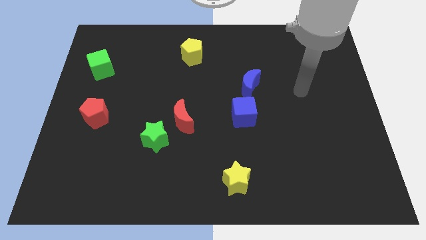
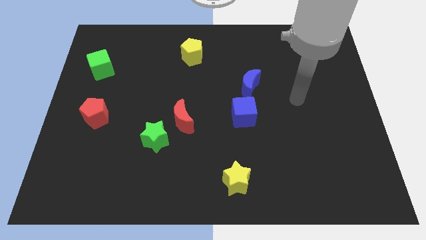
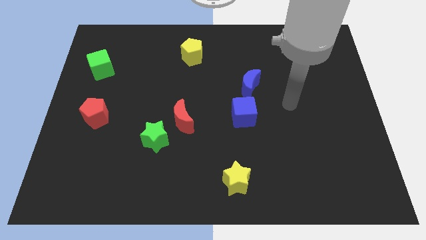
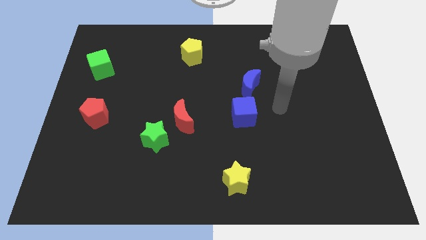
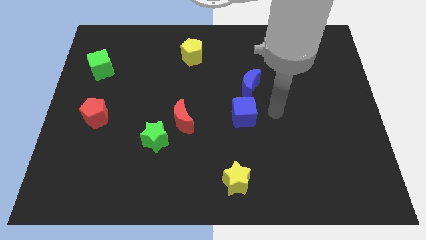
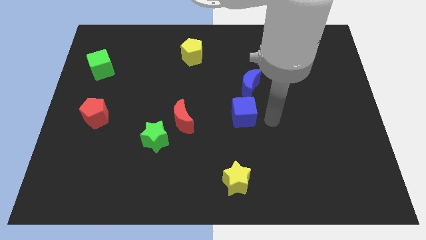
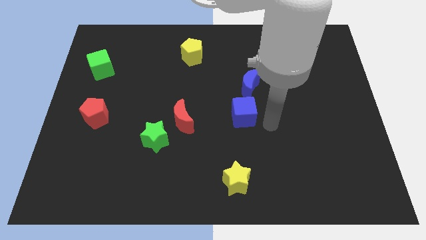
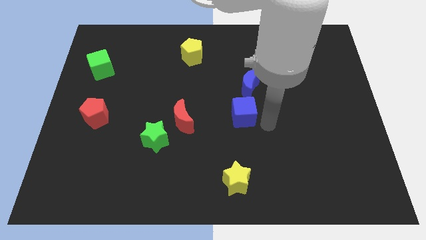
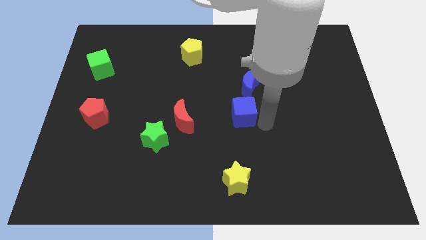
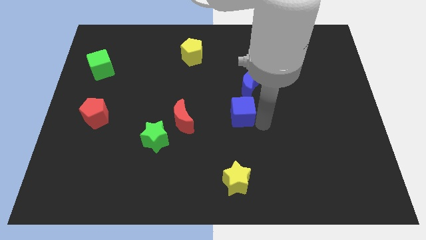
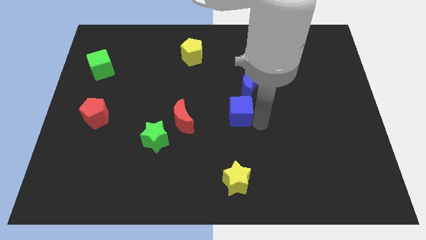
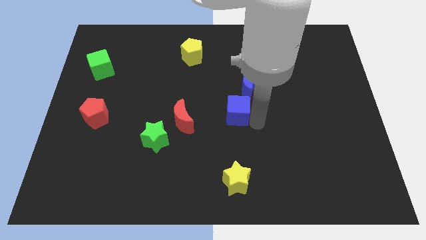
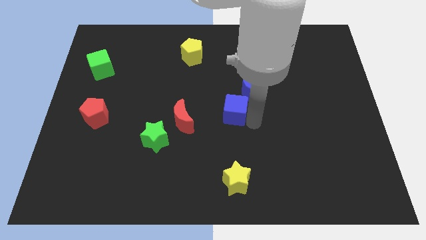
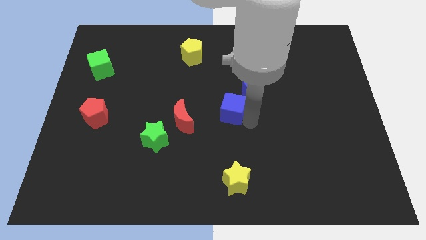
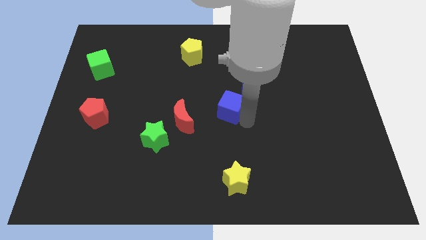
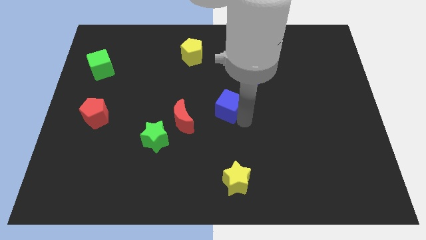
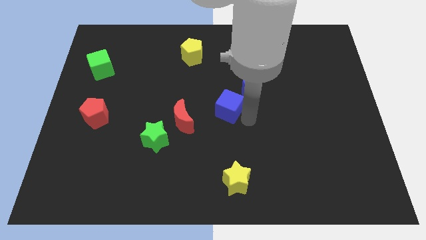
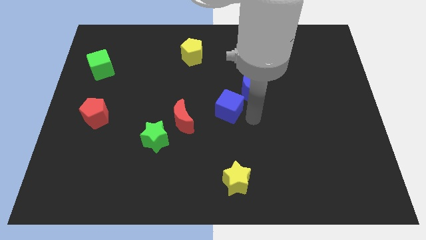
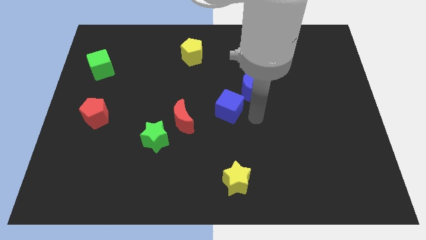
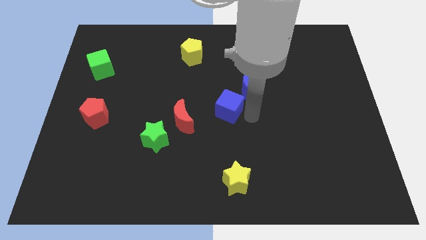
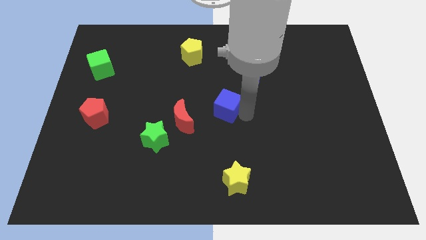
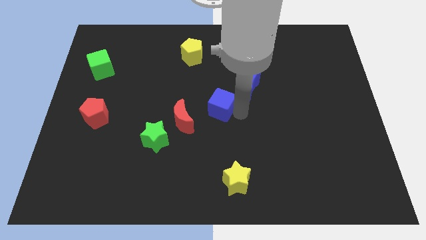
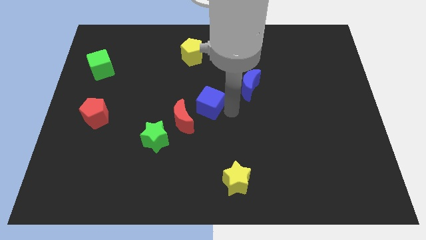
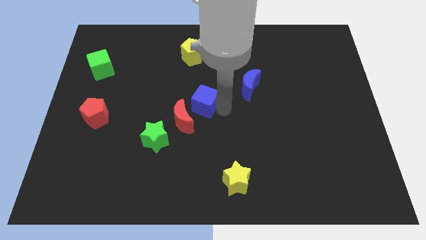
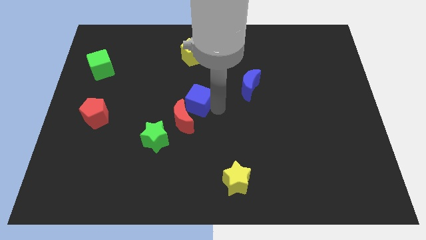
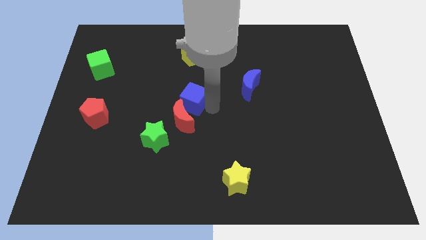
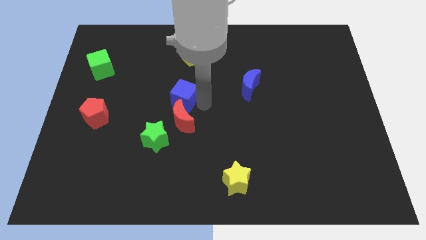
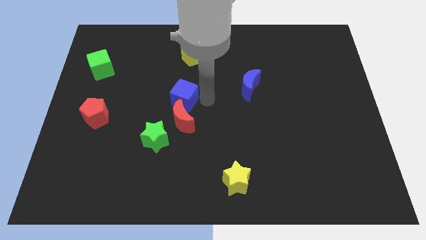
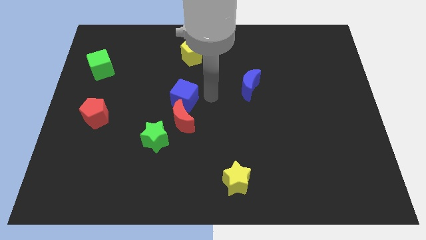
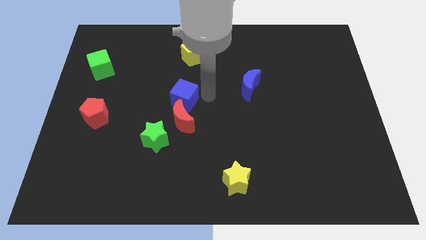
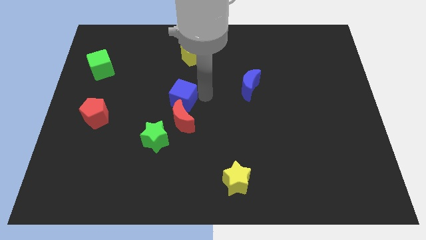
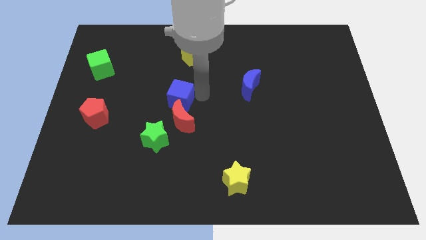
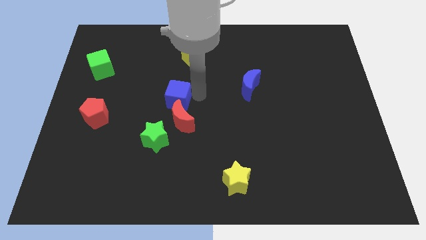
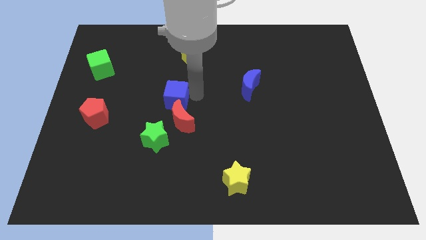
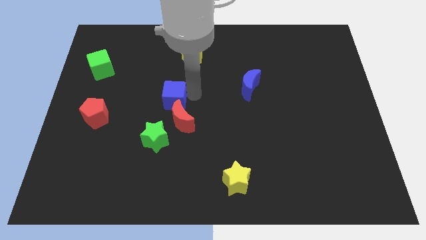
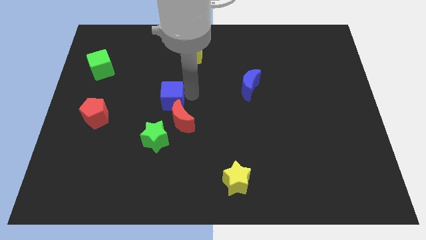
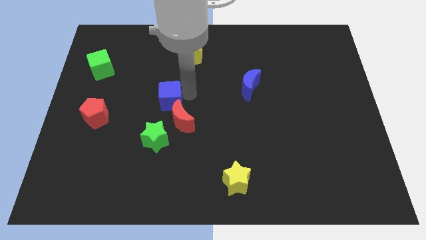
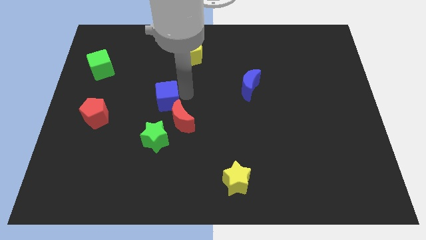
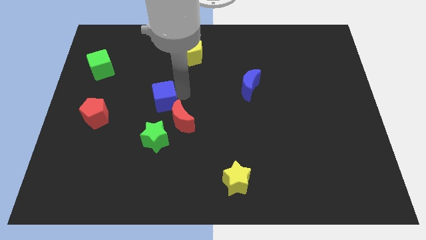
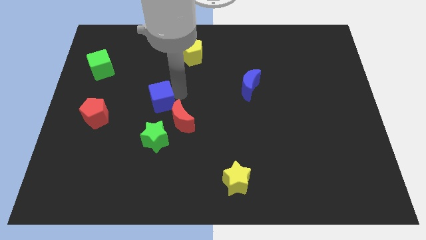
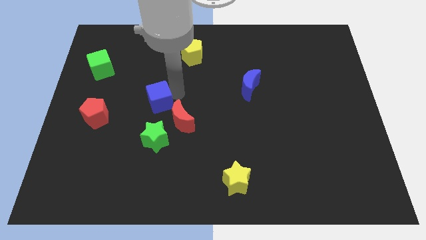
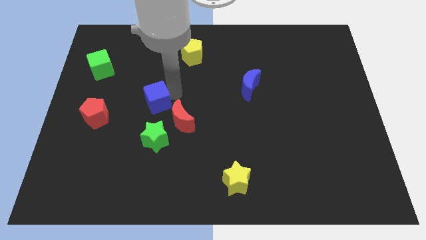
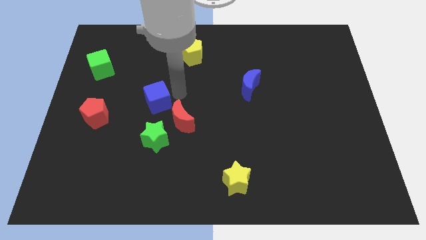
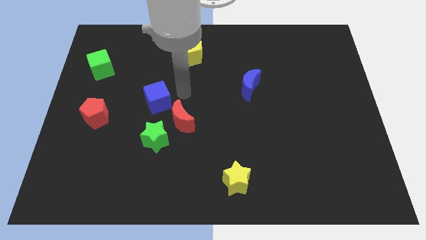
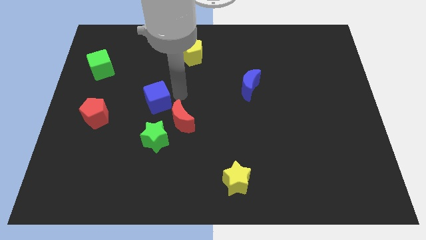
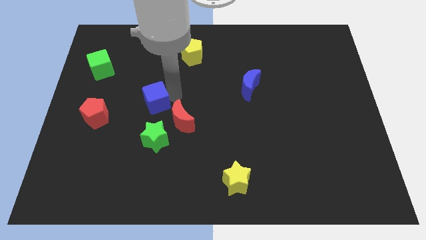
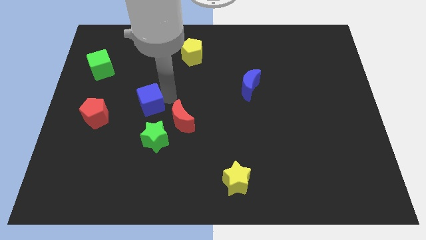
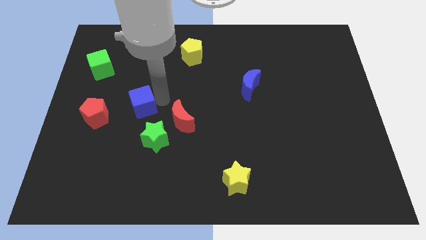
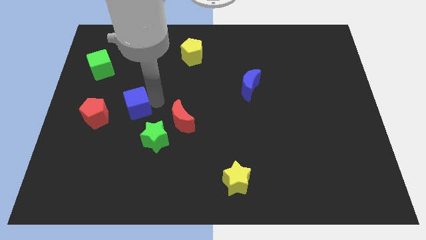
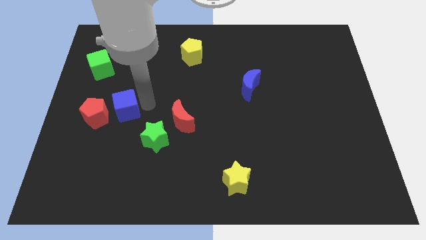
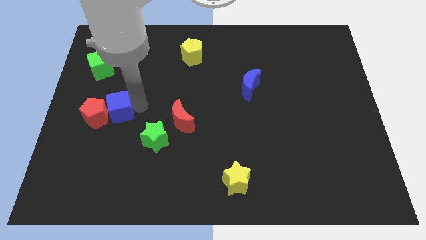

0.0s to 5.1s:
put the blue cube towards the red pentagon

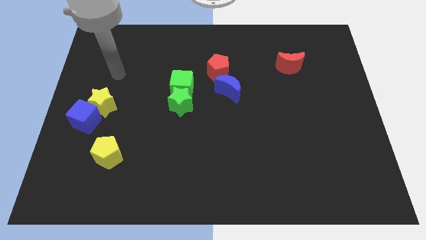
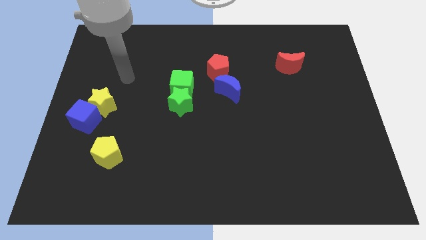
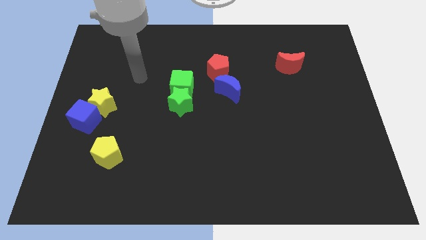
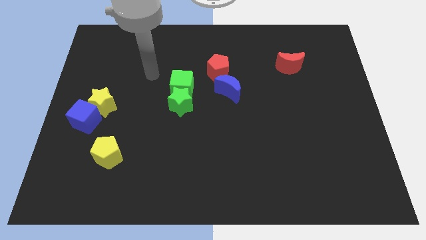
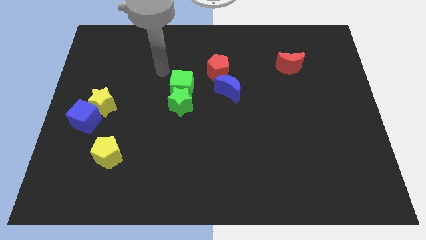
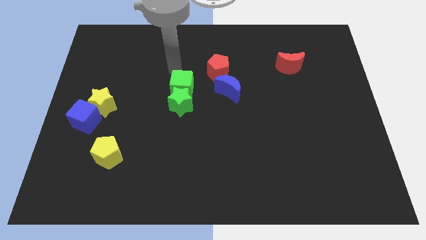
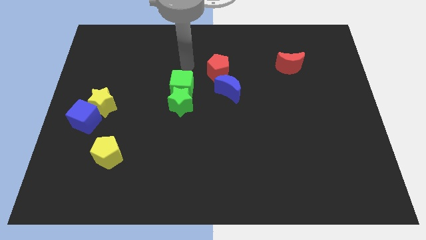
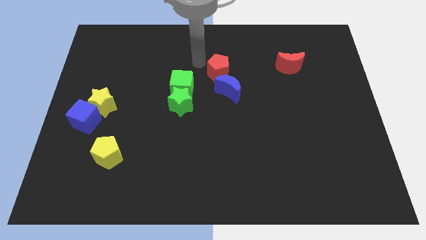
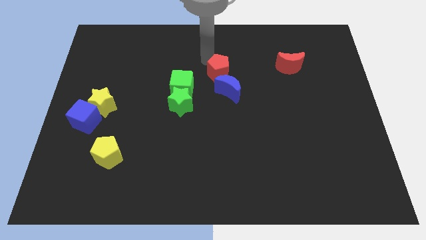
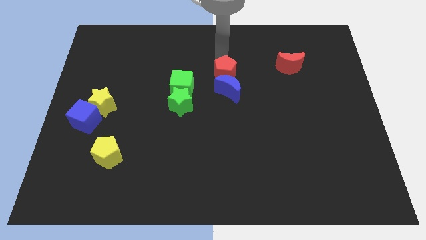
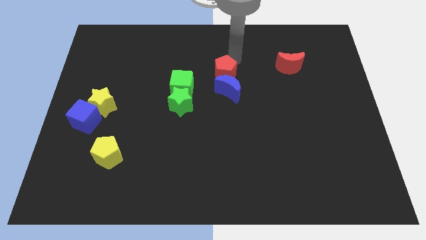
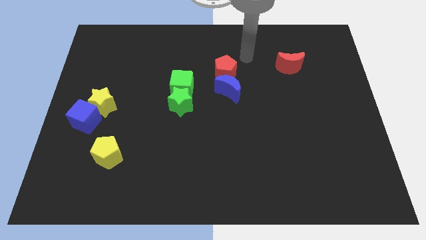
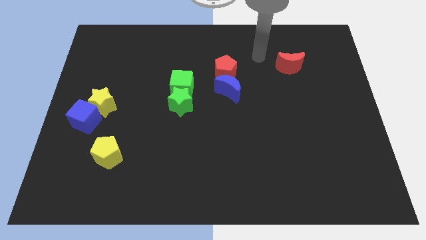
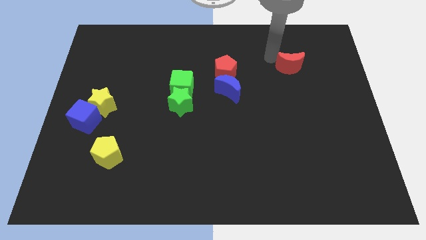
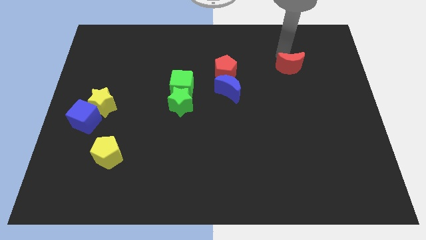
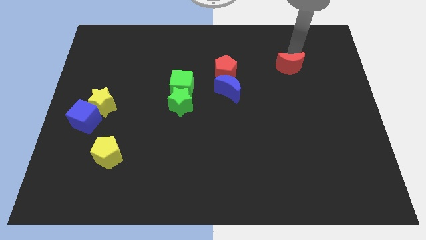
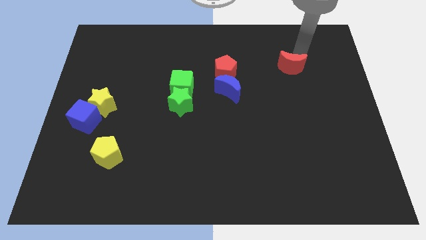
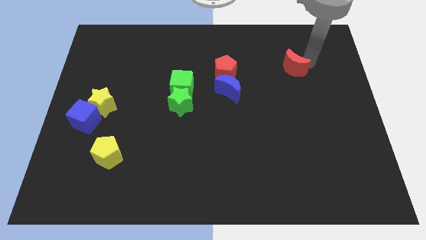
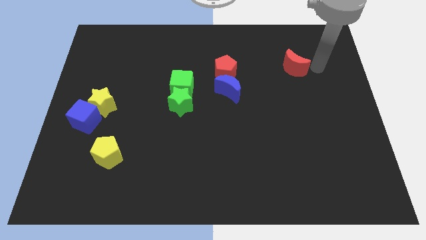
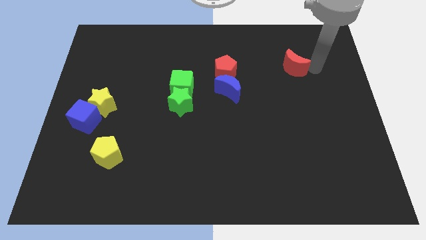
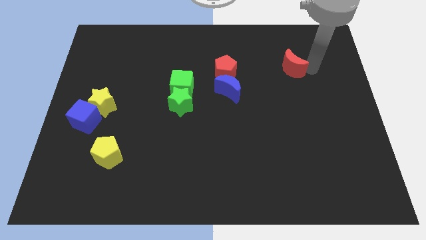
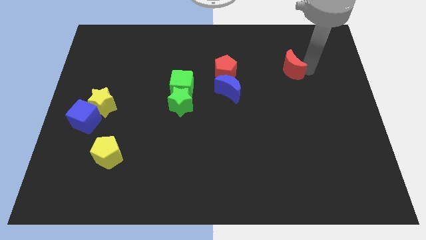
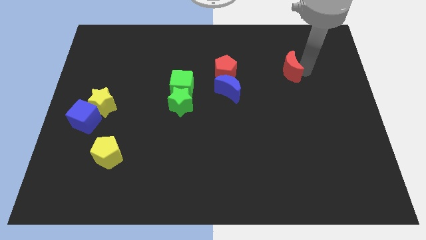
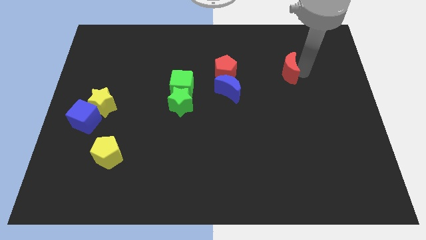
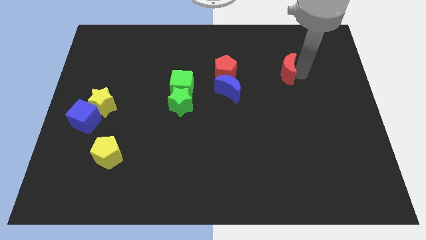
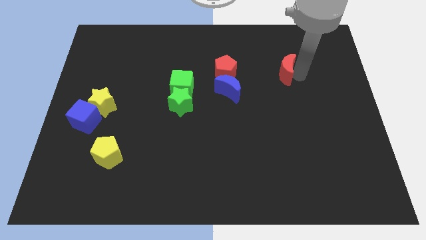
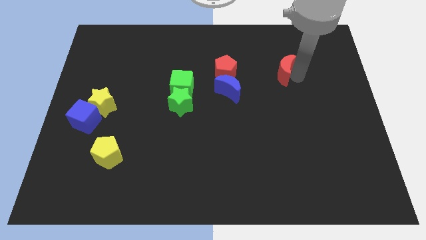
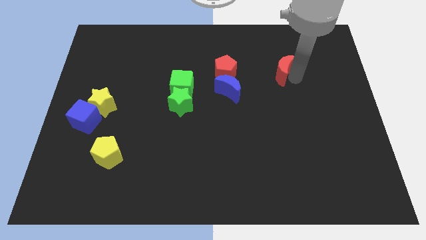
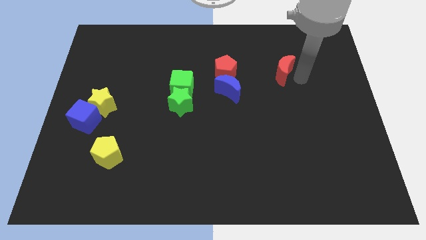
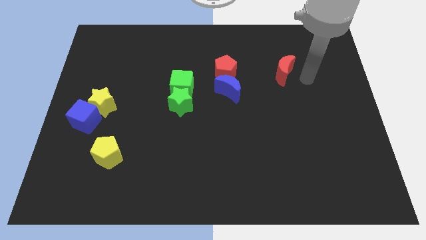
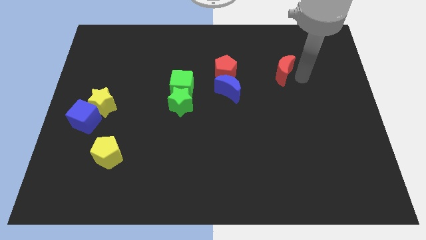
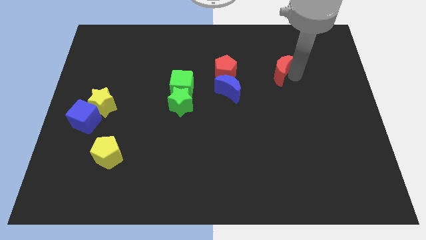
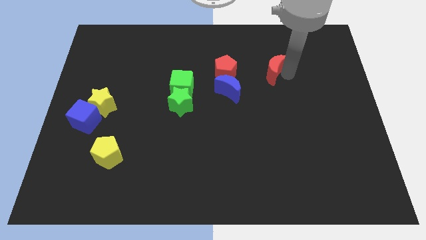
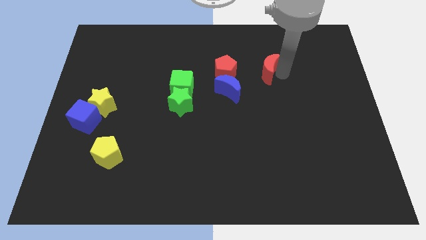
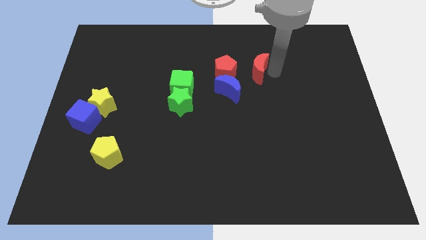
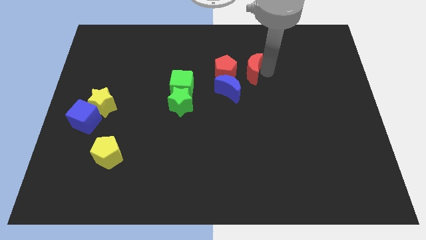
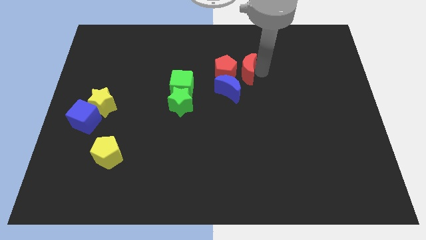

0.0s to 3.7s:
move the red moon to the red pentagon
